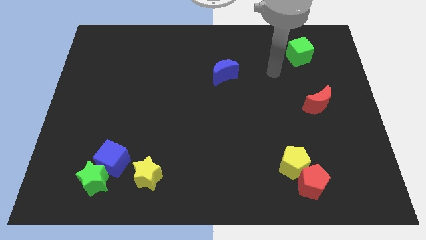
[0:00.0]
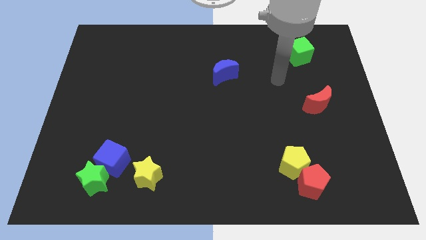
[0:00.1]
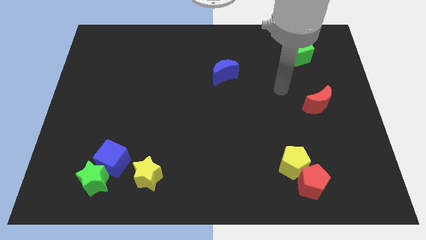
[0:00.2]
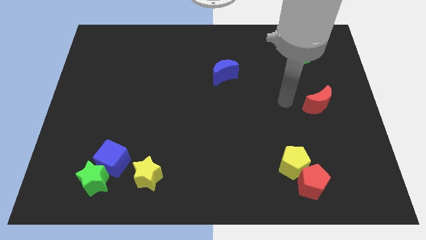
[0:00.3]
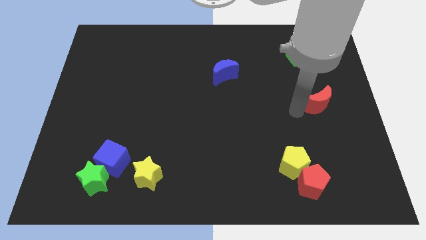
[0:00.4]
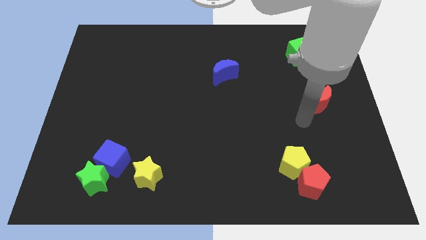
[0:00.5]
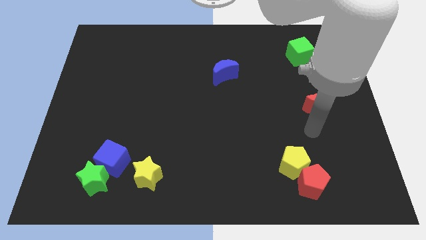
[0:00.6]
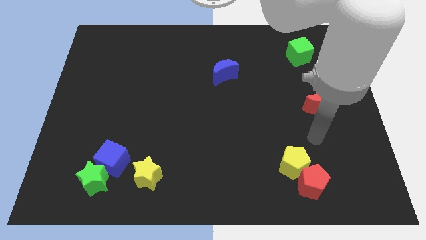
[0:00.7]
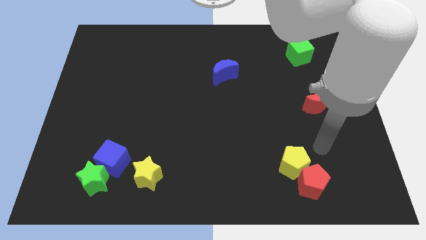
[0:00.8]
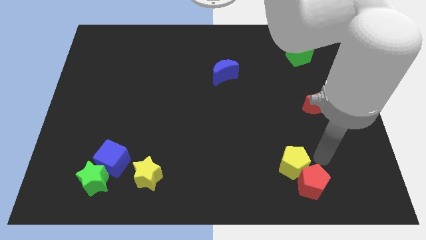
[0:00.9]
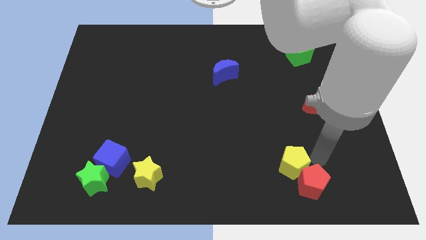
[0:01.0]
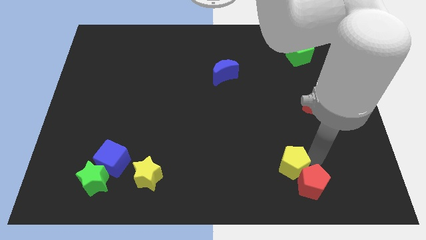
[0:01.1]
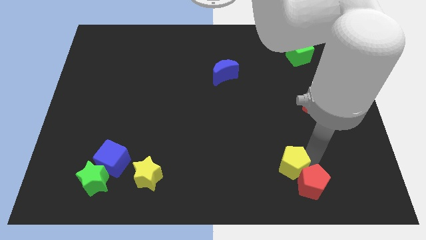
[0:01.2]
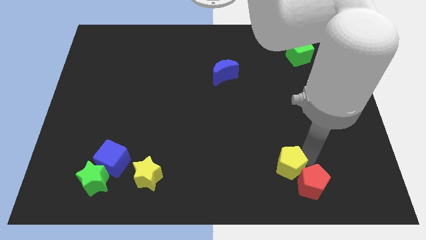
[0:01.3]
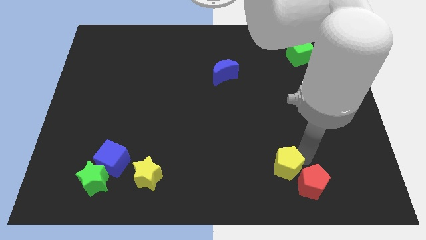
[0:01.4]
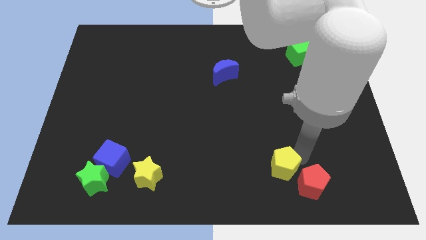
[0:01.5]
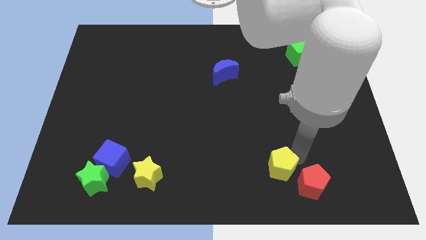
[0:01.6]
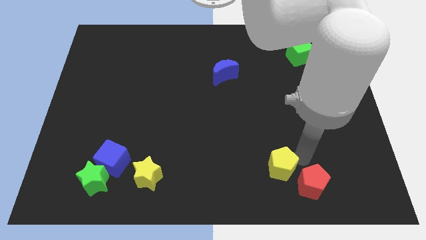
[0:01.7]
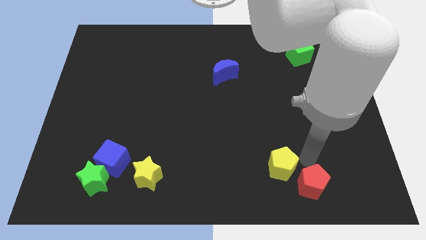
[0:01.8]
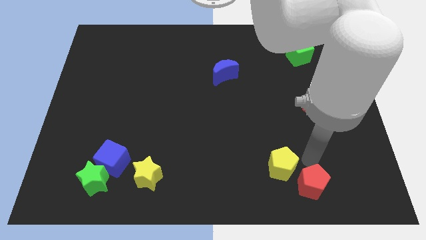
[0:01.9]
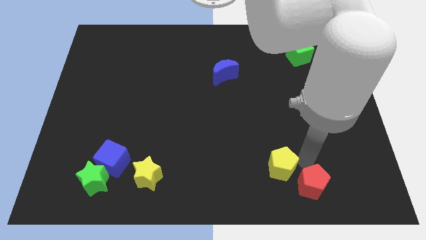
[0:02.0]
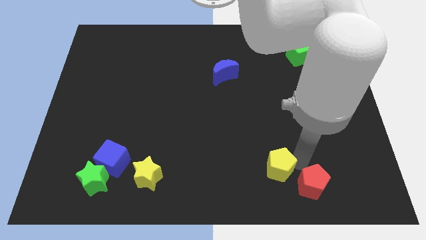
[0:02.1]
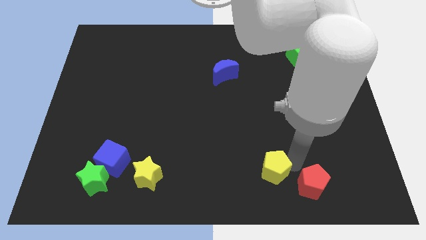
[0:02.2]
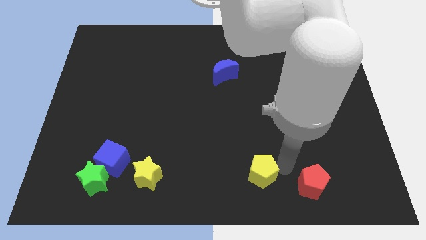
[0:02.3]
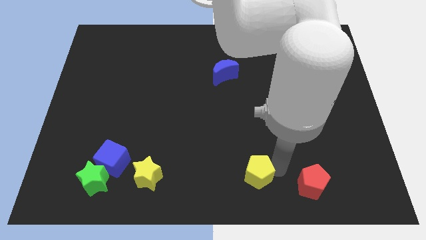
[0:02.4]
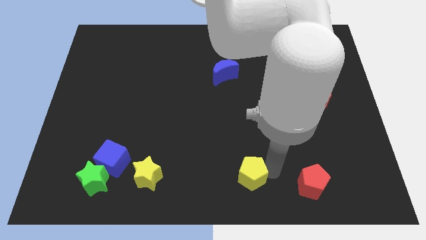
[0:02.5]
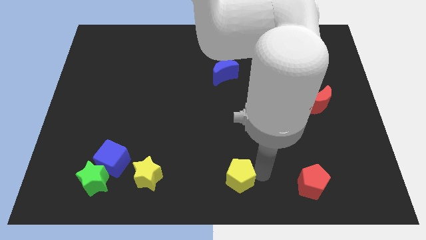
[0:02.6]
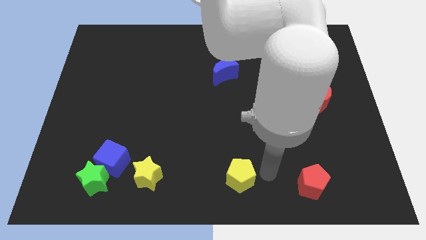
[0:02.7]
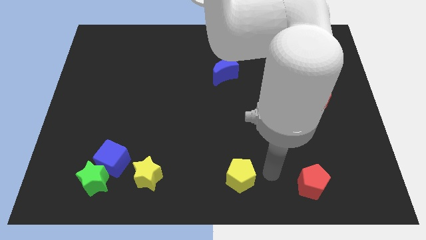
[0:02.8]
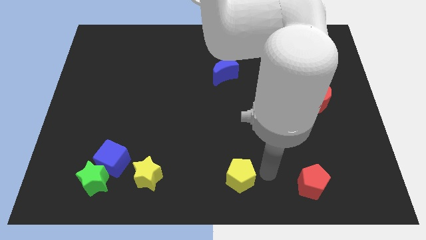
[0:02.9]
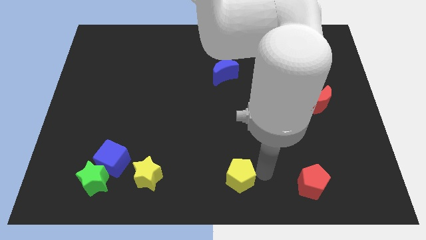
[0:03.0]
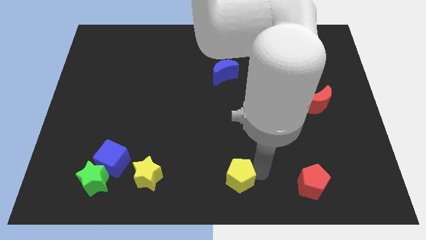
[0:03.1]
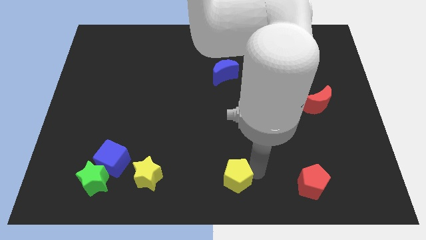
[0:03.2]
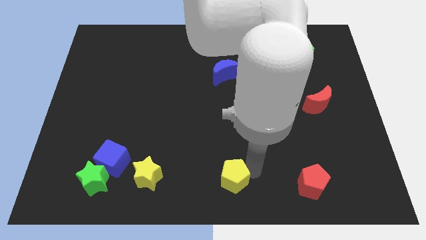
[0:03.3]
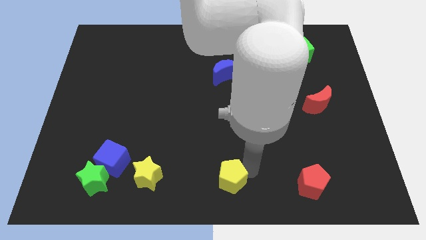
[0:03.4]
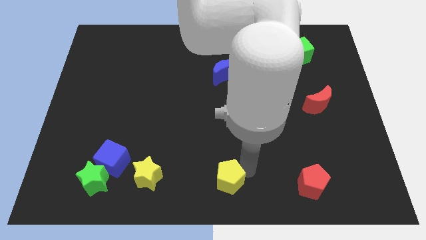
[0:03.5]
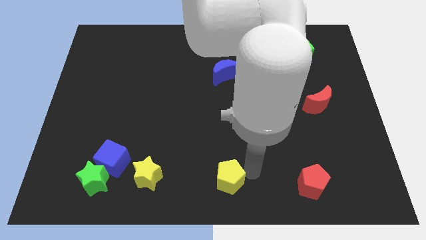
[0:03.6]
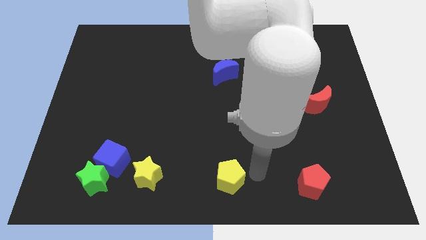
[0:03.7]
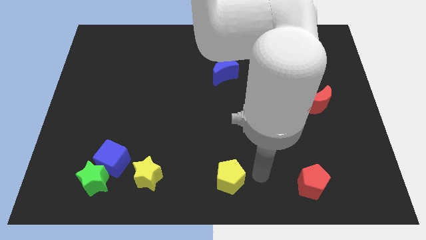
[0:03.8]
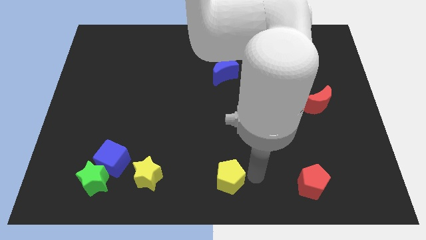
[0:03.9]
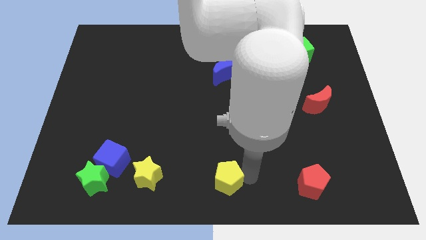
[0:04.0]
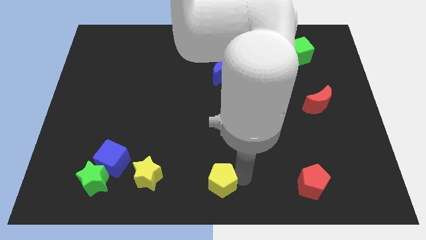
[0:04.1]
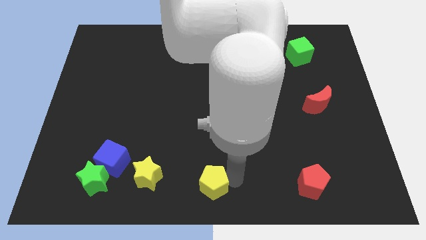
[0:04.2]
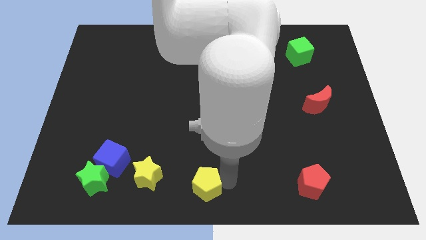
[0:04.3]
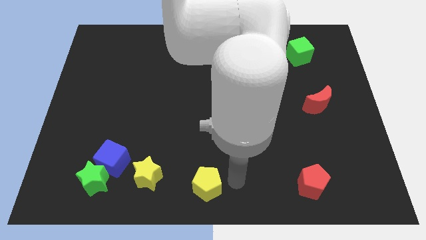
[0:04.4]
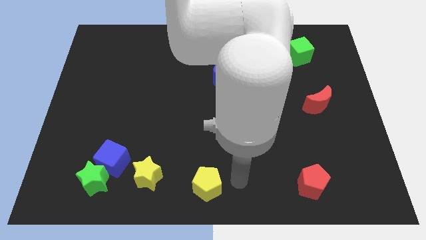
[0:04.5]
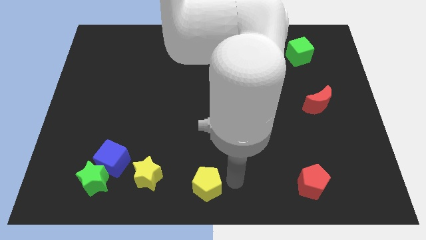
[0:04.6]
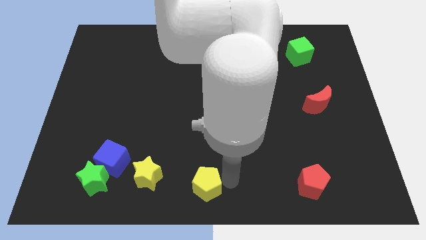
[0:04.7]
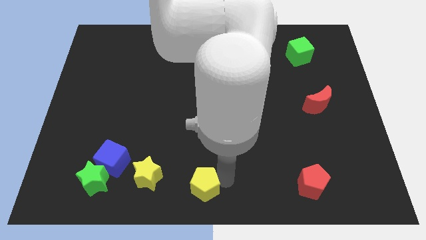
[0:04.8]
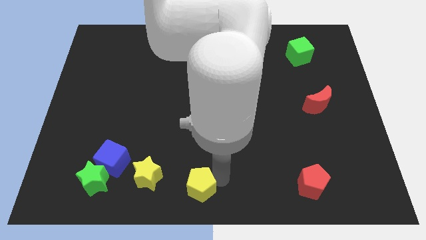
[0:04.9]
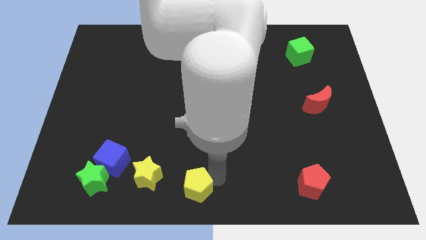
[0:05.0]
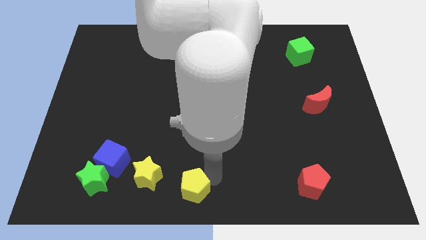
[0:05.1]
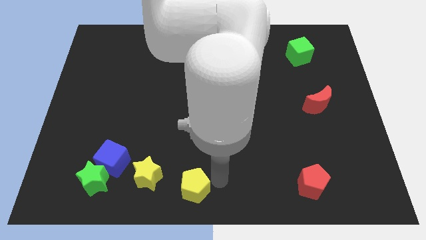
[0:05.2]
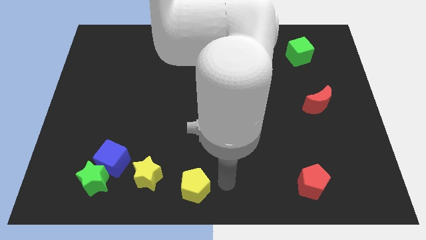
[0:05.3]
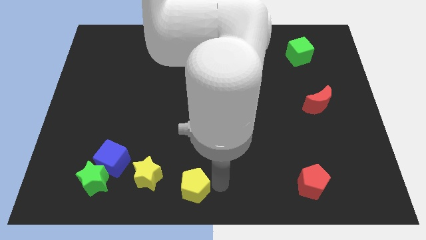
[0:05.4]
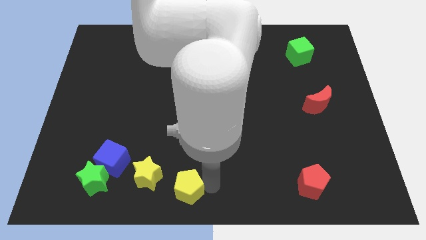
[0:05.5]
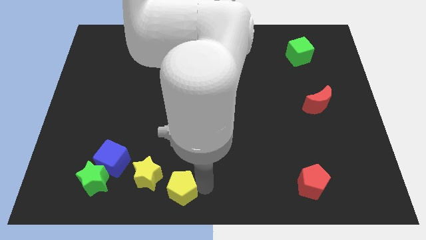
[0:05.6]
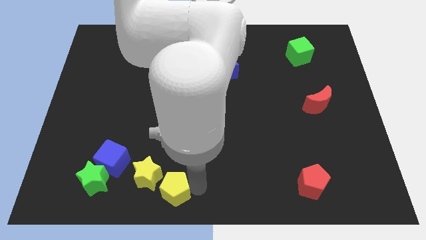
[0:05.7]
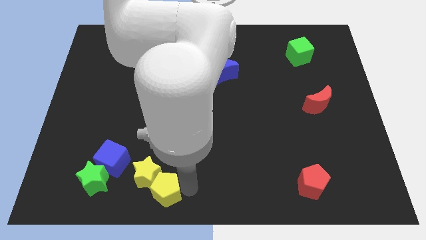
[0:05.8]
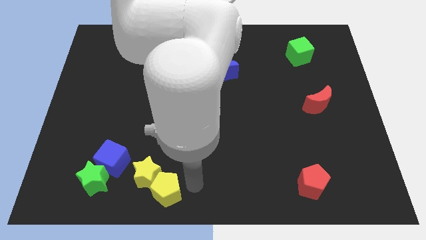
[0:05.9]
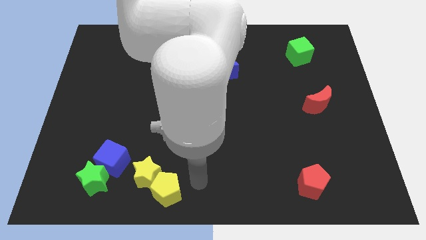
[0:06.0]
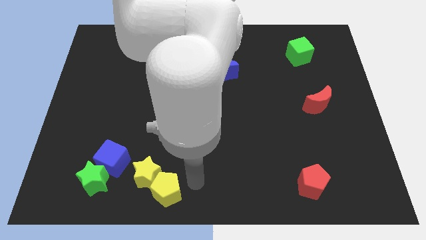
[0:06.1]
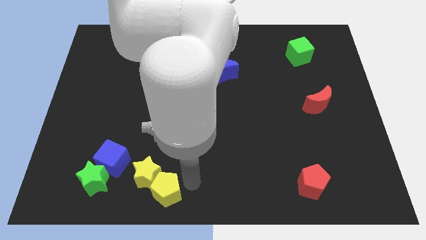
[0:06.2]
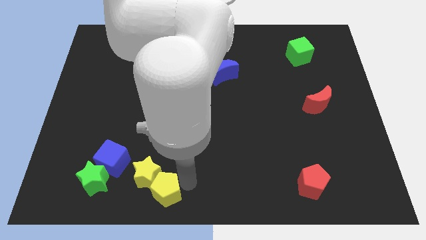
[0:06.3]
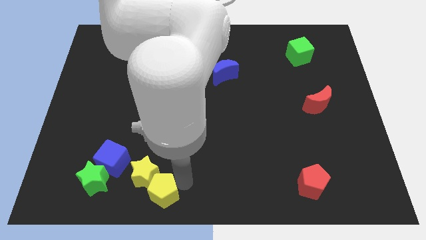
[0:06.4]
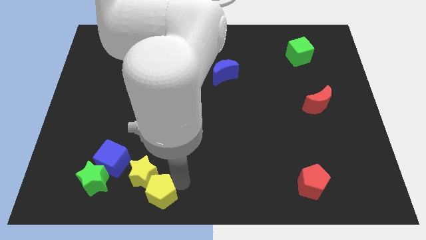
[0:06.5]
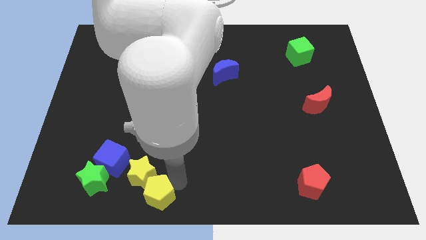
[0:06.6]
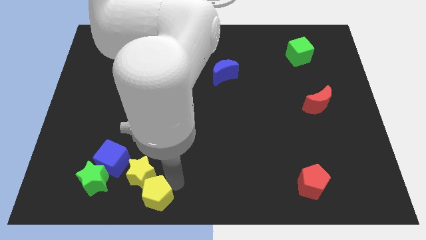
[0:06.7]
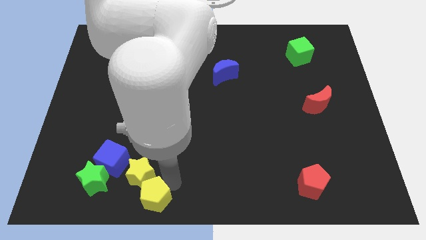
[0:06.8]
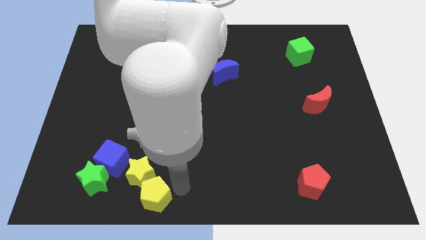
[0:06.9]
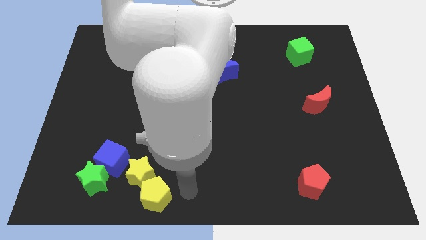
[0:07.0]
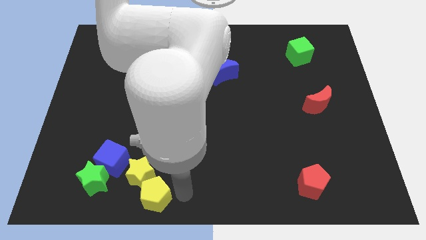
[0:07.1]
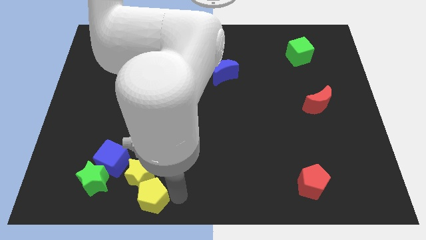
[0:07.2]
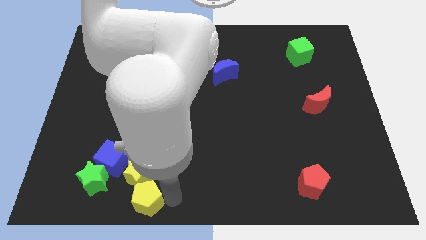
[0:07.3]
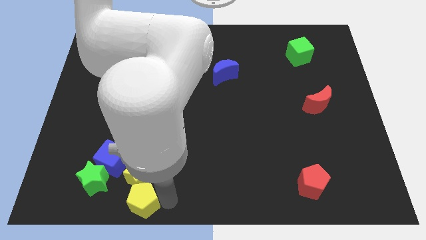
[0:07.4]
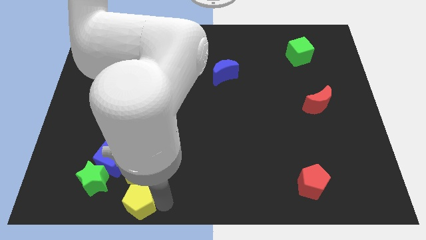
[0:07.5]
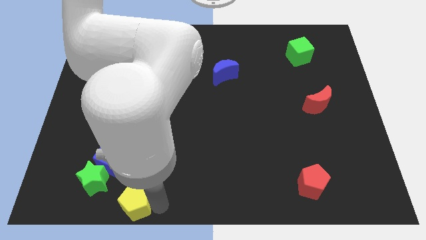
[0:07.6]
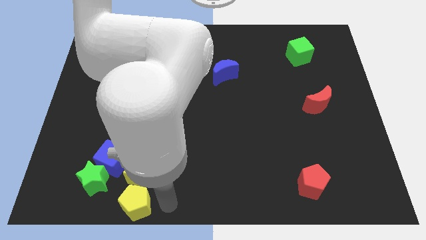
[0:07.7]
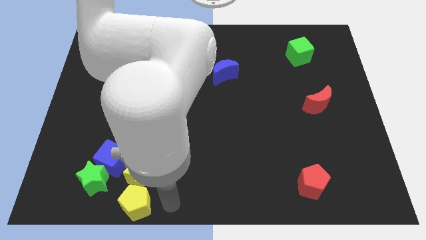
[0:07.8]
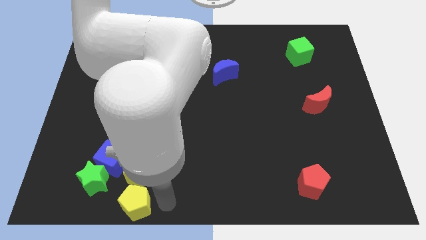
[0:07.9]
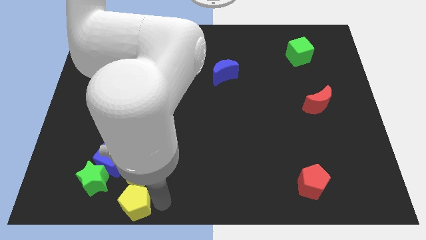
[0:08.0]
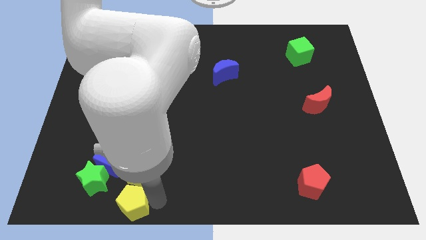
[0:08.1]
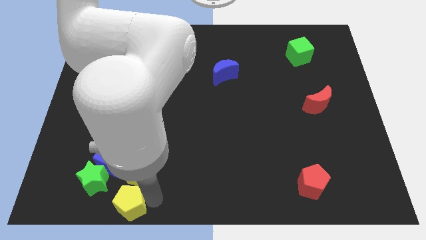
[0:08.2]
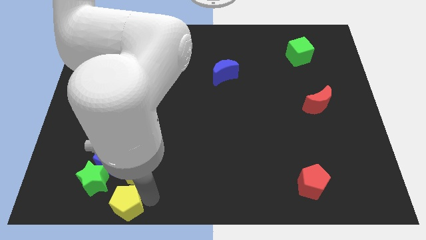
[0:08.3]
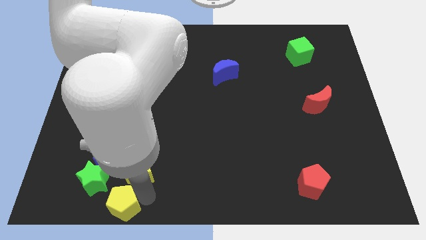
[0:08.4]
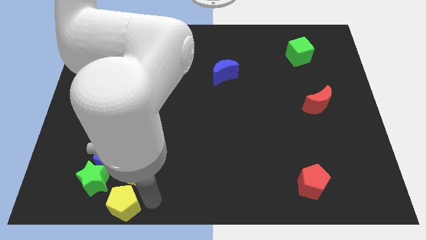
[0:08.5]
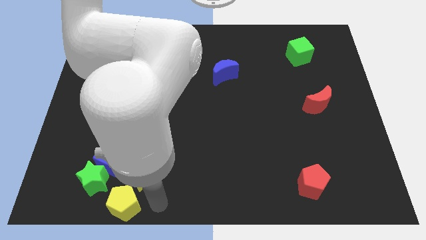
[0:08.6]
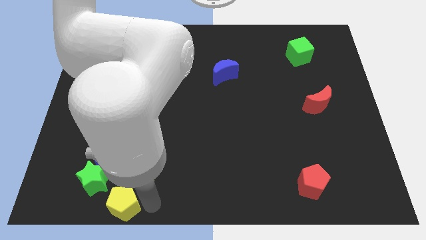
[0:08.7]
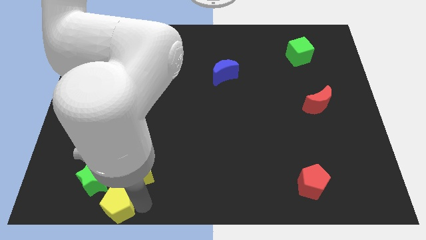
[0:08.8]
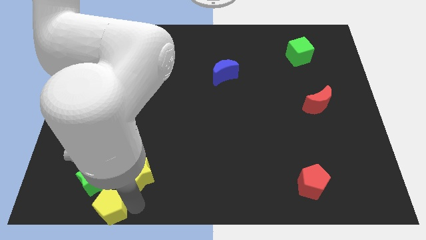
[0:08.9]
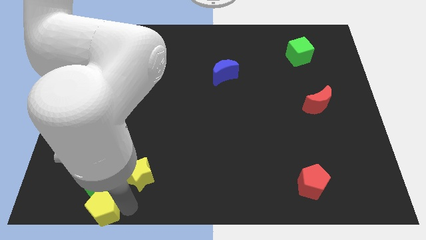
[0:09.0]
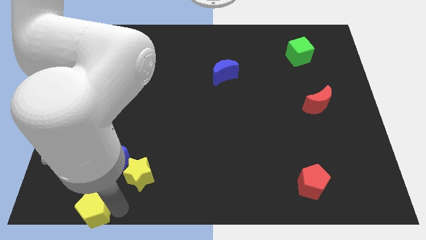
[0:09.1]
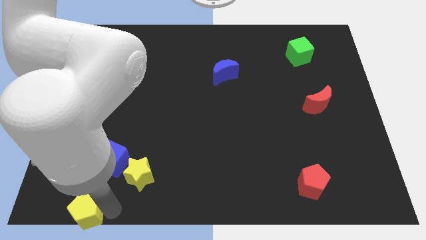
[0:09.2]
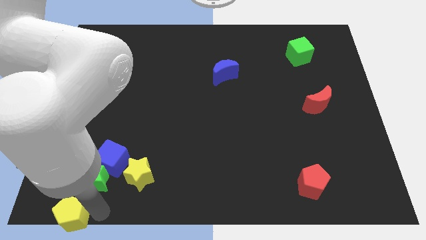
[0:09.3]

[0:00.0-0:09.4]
put the yellow pentagon to the bottom left of the board
